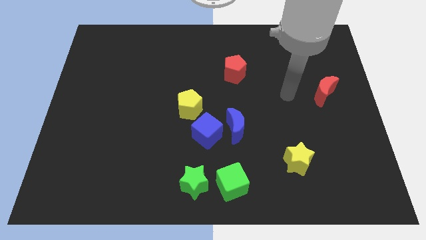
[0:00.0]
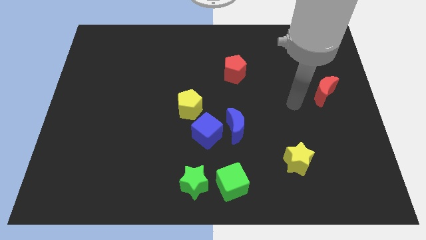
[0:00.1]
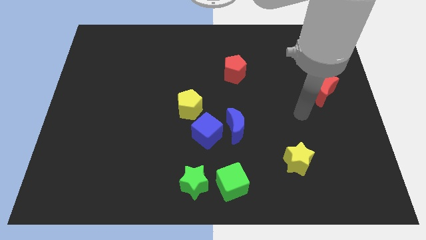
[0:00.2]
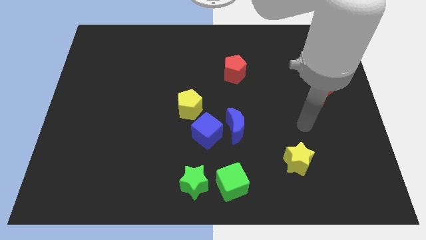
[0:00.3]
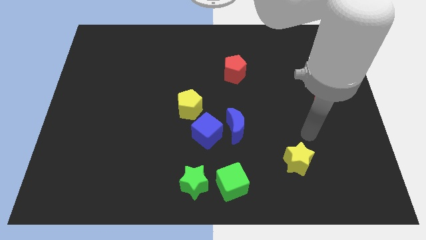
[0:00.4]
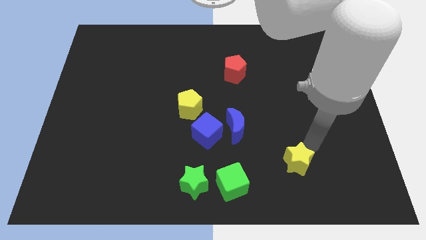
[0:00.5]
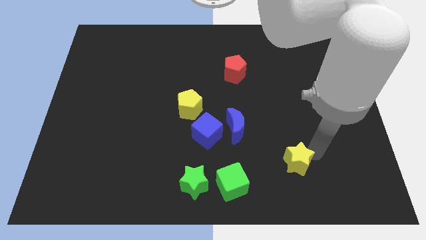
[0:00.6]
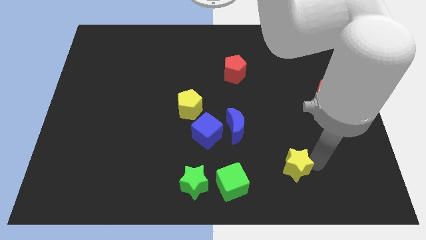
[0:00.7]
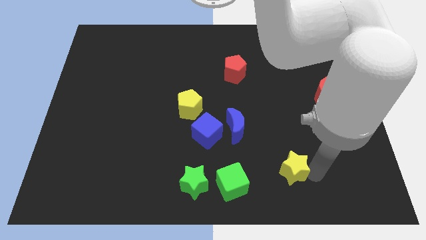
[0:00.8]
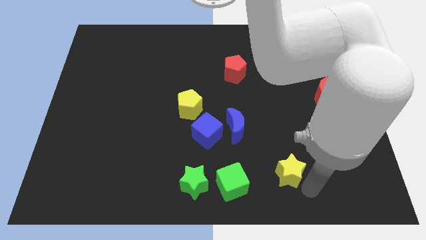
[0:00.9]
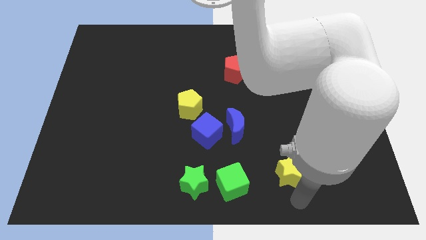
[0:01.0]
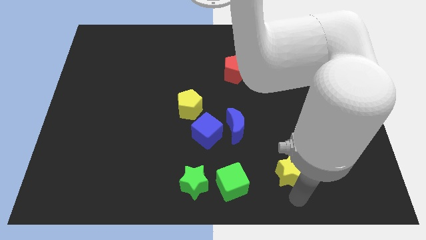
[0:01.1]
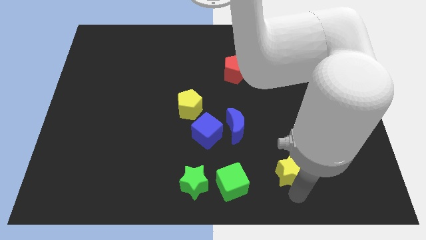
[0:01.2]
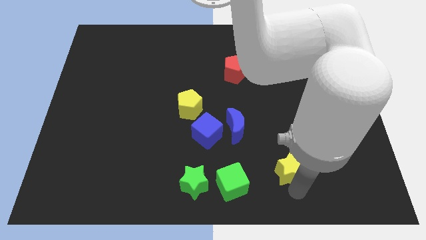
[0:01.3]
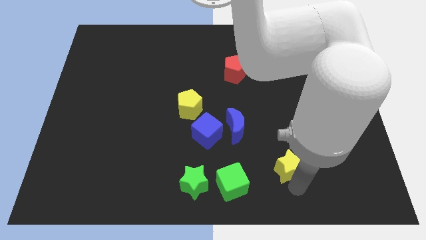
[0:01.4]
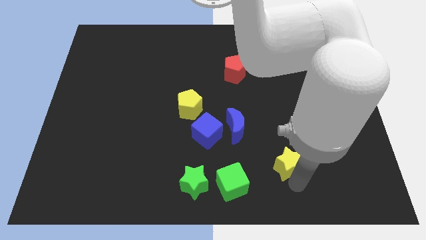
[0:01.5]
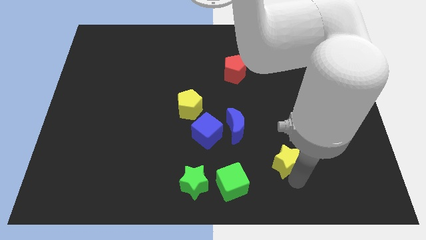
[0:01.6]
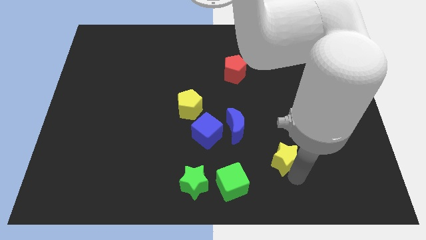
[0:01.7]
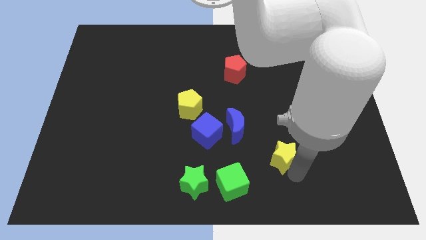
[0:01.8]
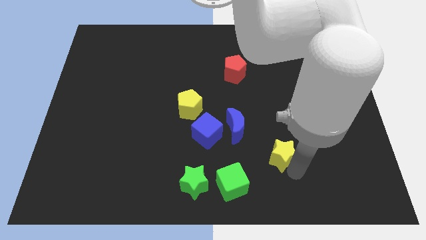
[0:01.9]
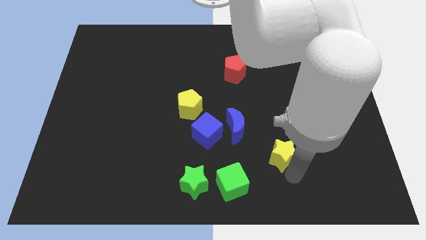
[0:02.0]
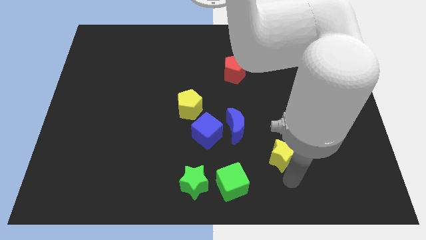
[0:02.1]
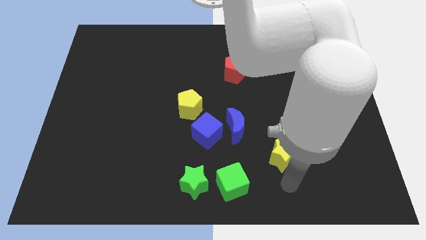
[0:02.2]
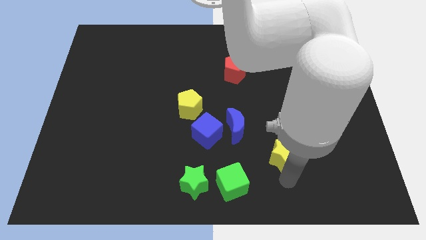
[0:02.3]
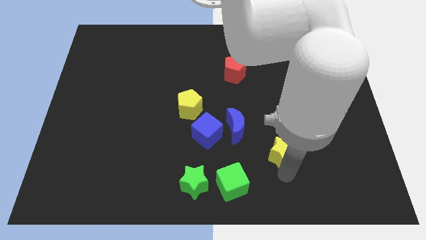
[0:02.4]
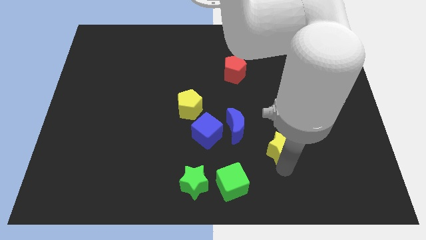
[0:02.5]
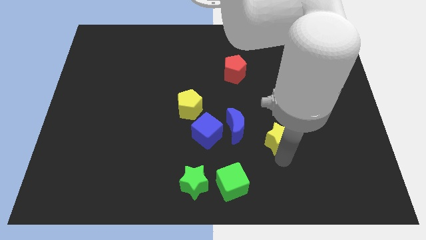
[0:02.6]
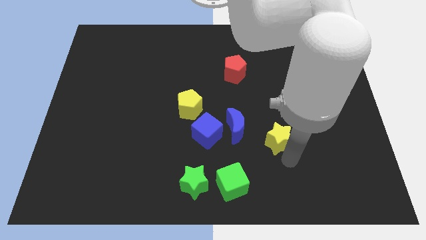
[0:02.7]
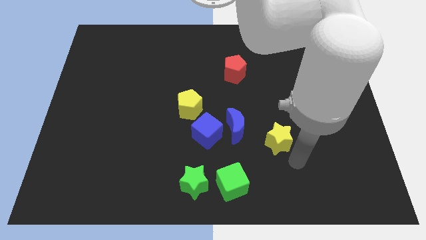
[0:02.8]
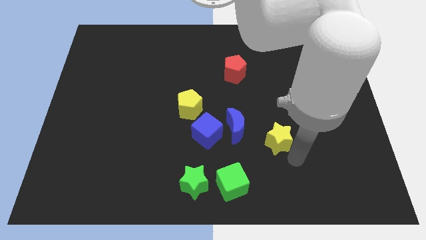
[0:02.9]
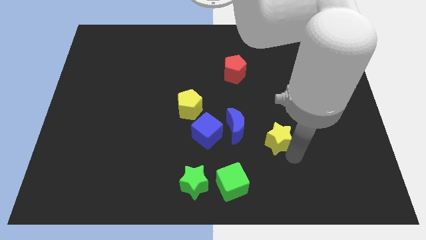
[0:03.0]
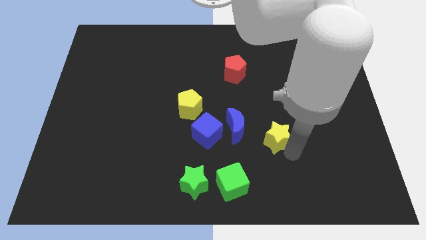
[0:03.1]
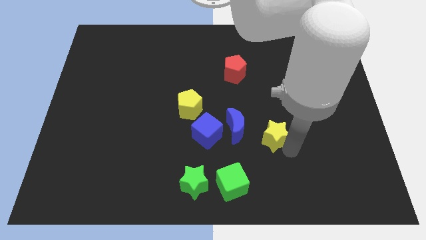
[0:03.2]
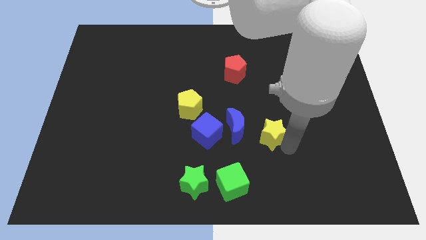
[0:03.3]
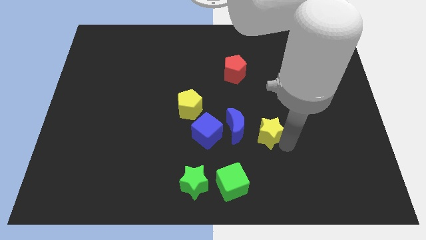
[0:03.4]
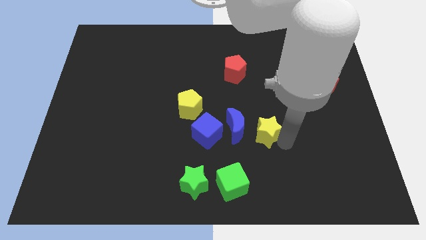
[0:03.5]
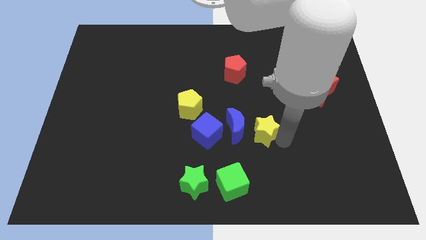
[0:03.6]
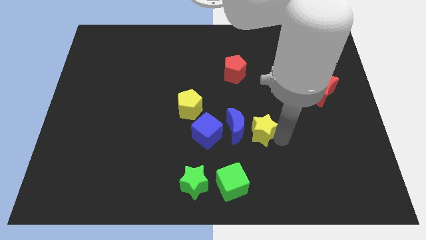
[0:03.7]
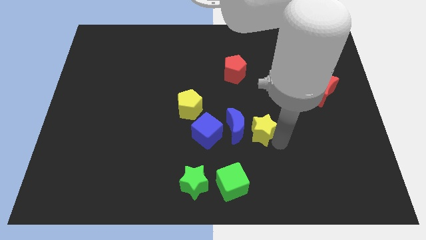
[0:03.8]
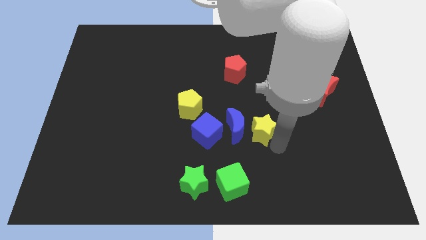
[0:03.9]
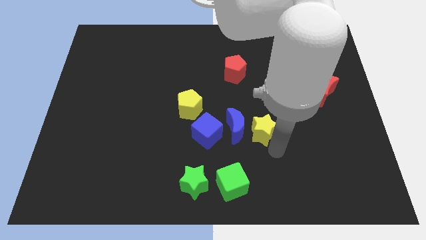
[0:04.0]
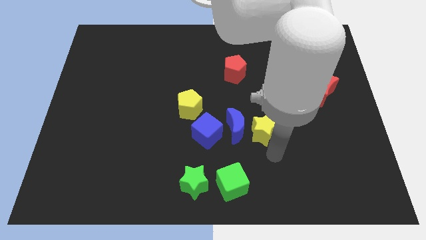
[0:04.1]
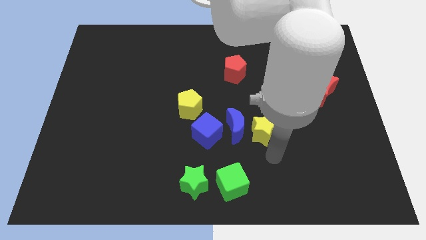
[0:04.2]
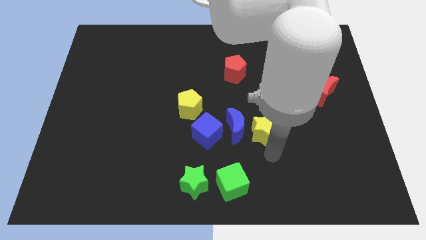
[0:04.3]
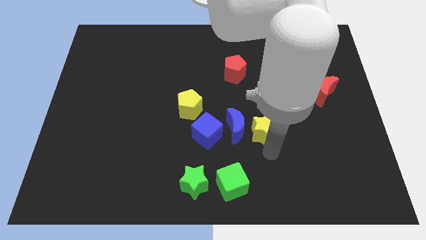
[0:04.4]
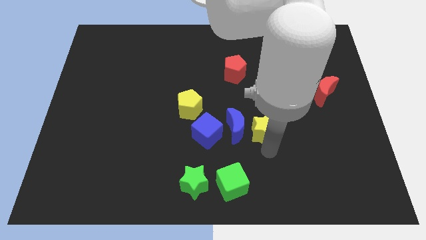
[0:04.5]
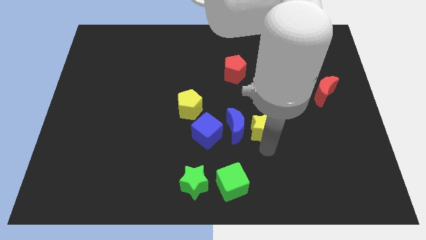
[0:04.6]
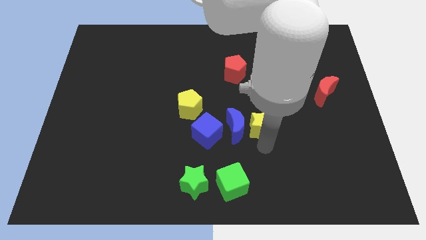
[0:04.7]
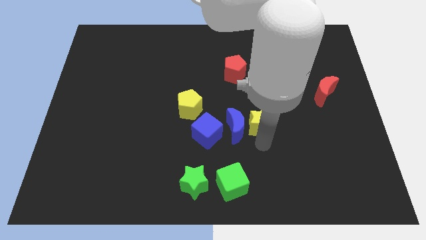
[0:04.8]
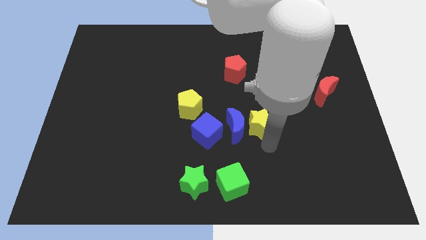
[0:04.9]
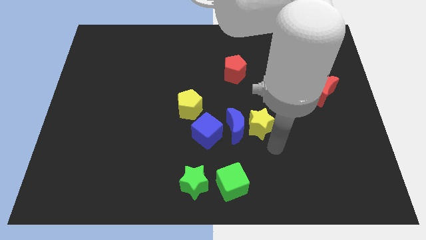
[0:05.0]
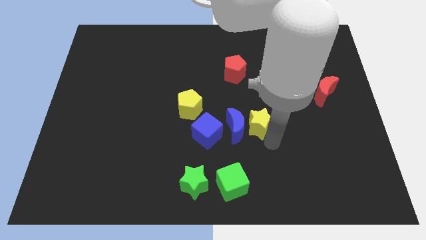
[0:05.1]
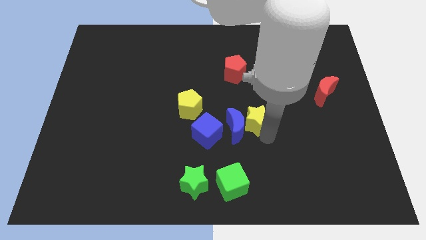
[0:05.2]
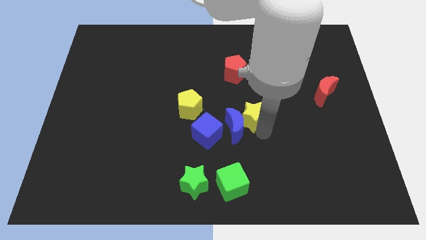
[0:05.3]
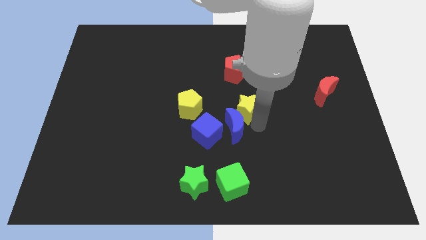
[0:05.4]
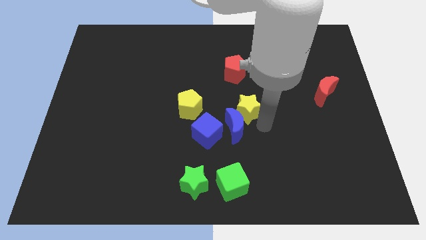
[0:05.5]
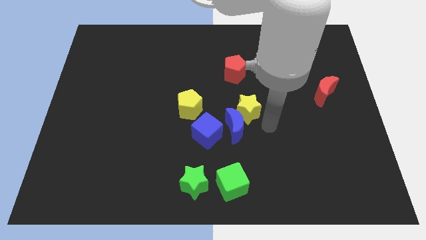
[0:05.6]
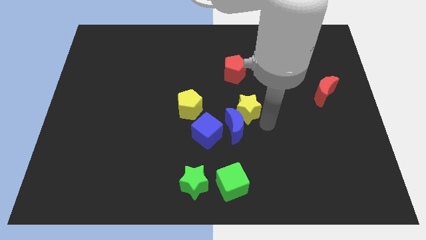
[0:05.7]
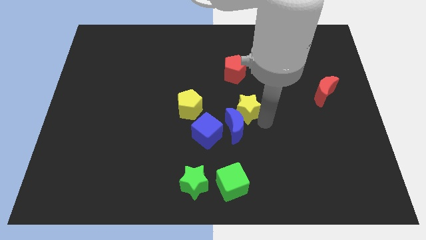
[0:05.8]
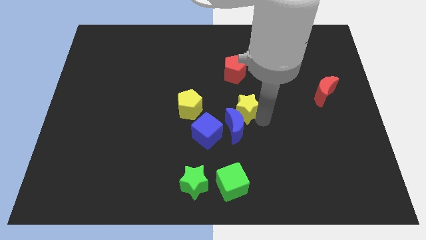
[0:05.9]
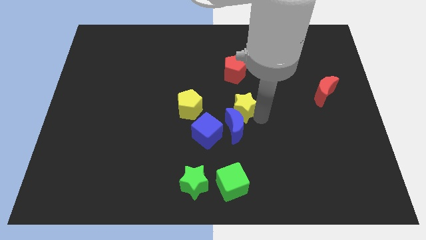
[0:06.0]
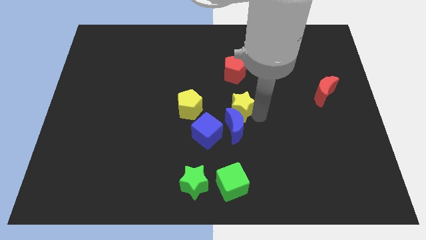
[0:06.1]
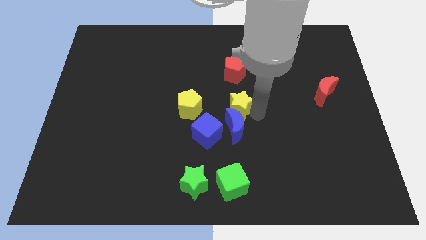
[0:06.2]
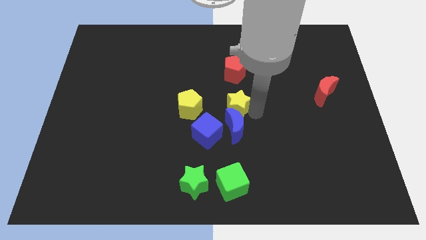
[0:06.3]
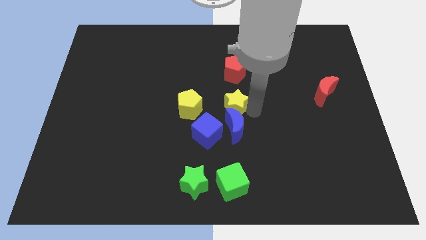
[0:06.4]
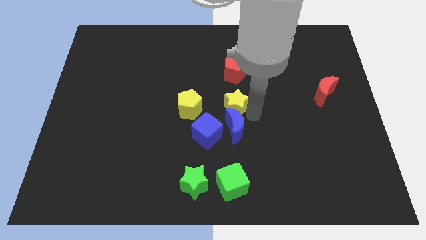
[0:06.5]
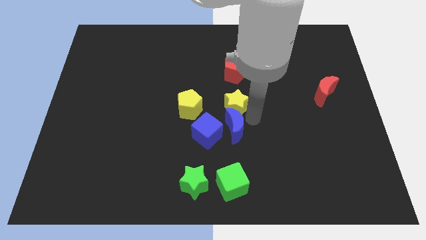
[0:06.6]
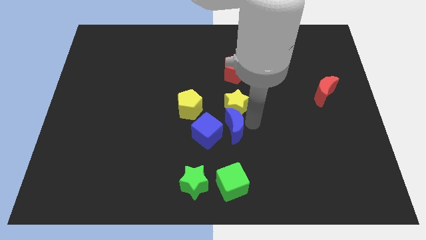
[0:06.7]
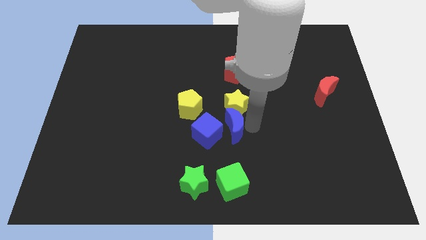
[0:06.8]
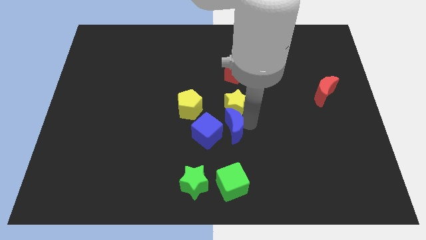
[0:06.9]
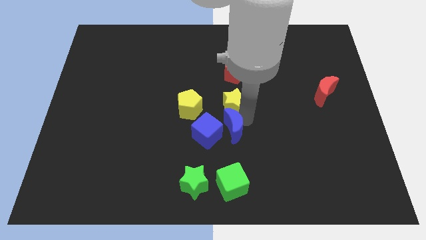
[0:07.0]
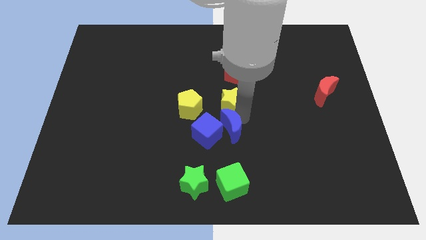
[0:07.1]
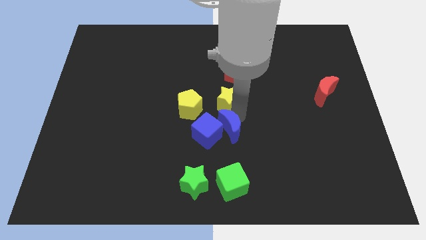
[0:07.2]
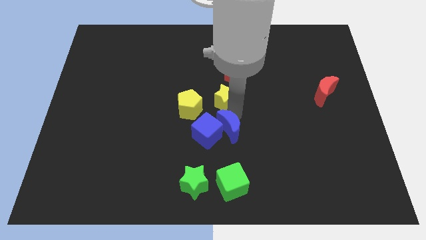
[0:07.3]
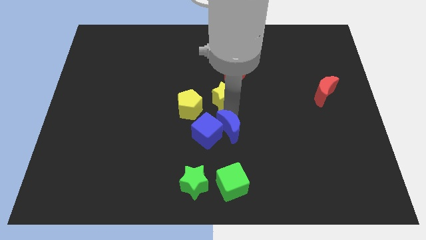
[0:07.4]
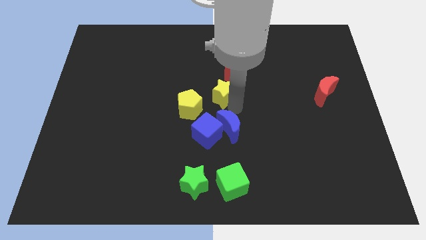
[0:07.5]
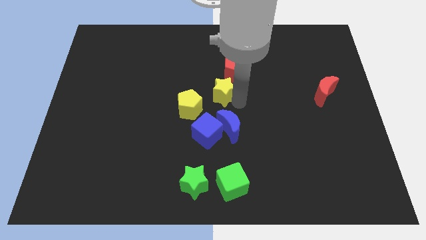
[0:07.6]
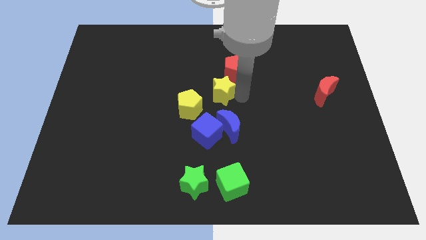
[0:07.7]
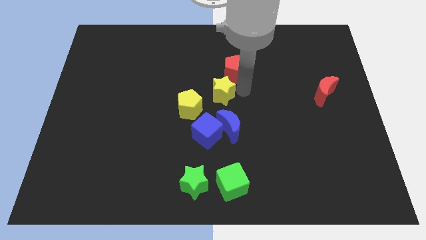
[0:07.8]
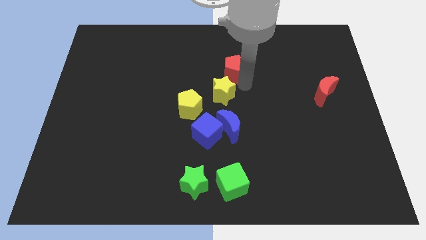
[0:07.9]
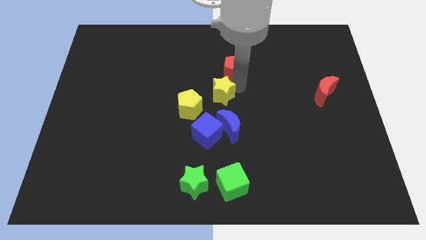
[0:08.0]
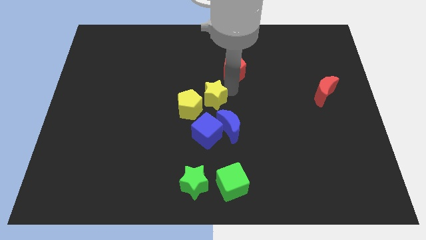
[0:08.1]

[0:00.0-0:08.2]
put the yellow star to the yellow pentagon
